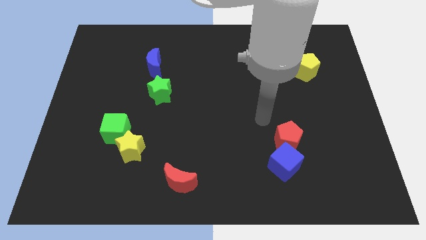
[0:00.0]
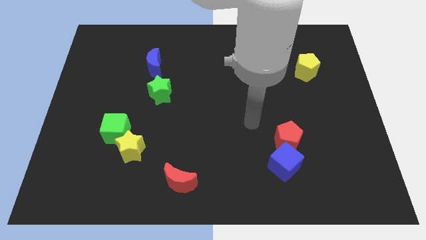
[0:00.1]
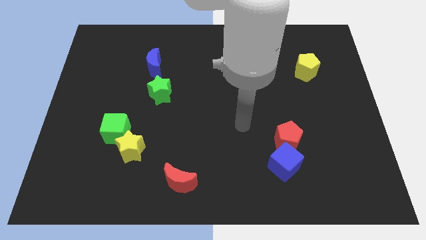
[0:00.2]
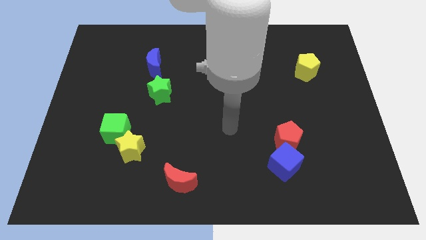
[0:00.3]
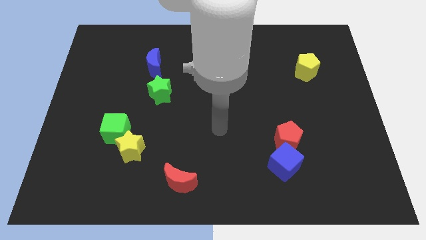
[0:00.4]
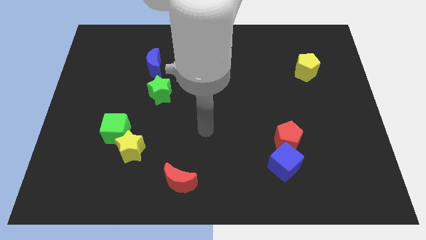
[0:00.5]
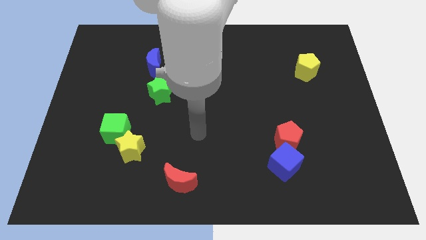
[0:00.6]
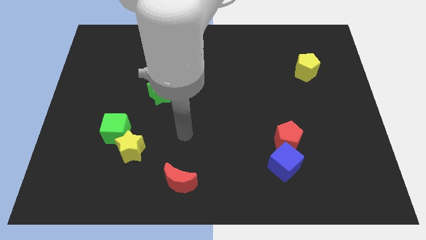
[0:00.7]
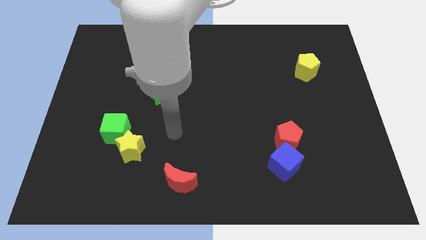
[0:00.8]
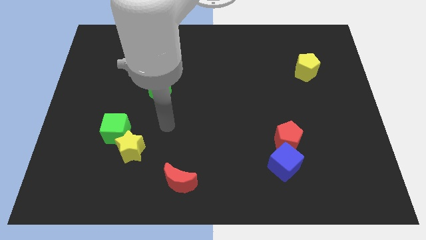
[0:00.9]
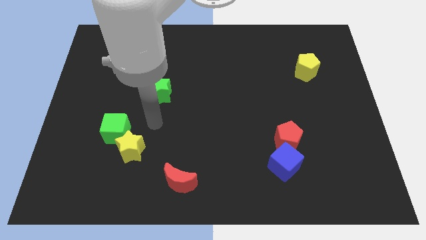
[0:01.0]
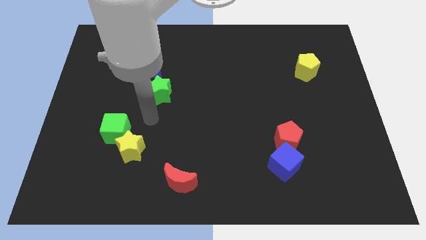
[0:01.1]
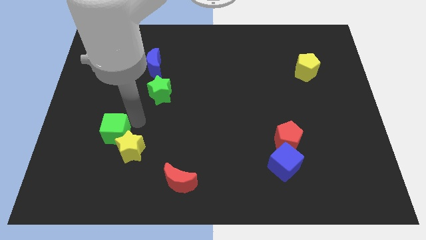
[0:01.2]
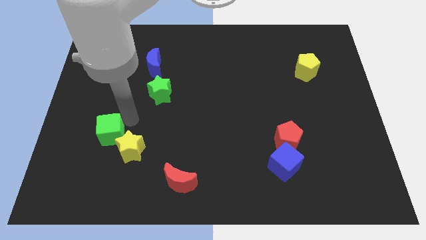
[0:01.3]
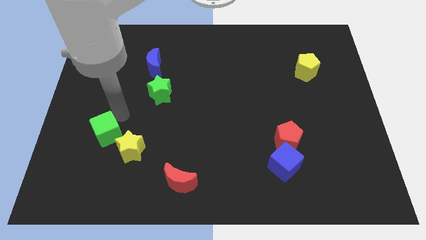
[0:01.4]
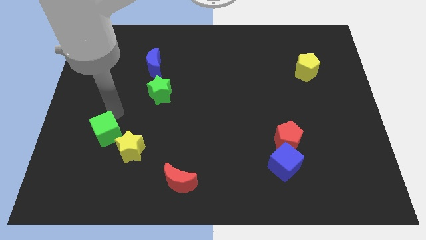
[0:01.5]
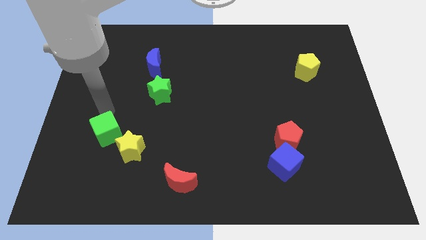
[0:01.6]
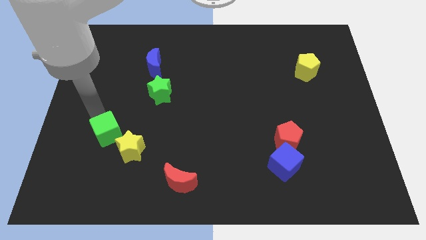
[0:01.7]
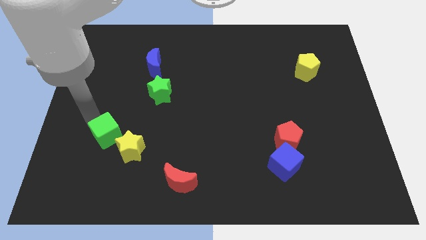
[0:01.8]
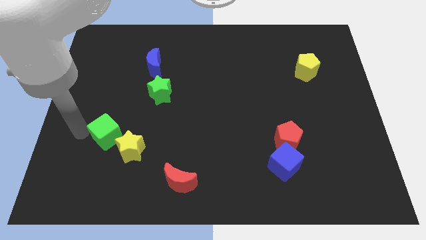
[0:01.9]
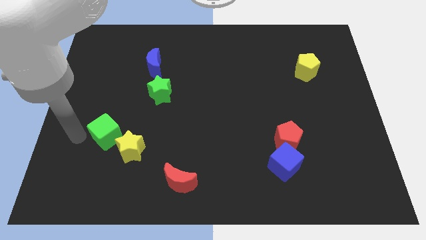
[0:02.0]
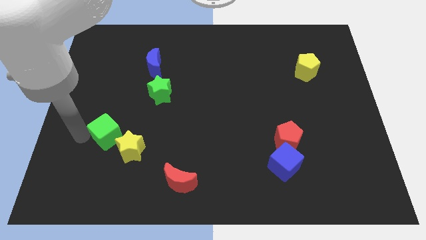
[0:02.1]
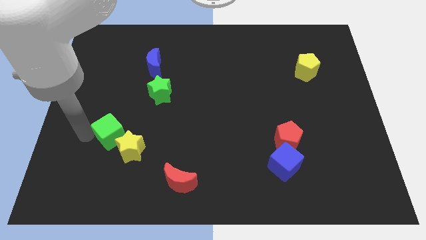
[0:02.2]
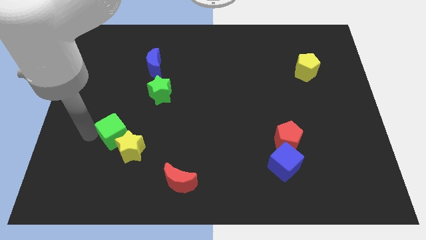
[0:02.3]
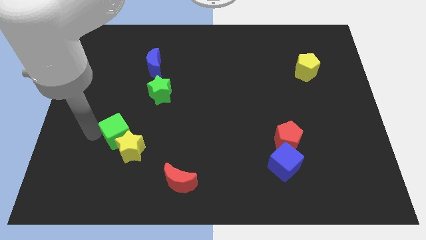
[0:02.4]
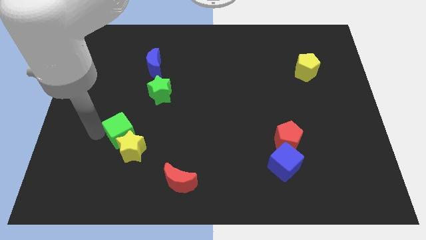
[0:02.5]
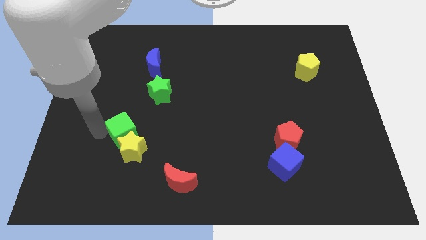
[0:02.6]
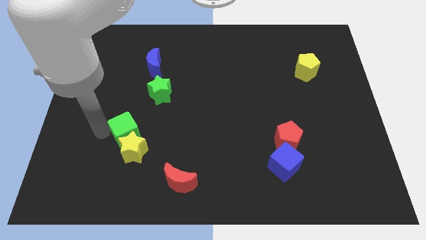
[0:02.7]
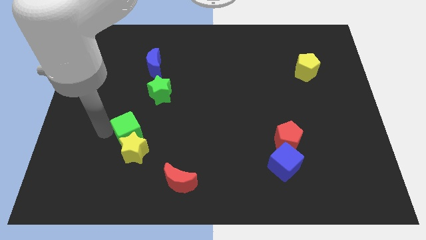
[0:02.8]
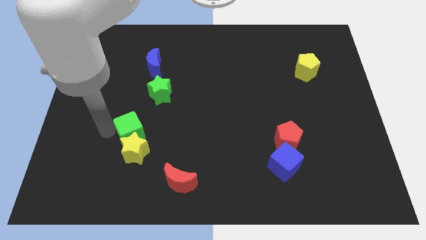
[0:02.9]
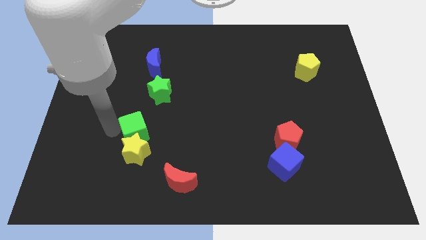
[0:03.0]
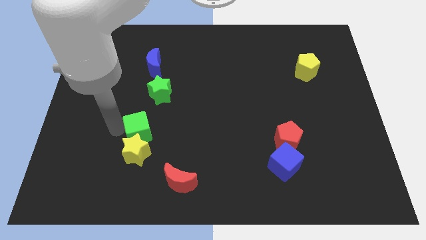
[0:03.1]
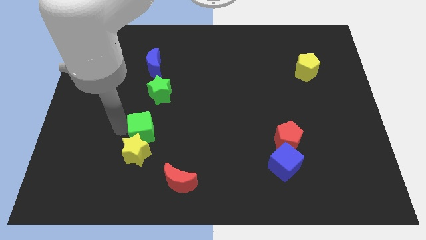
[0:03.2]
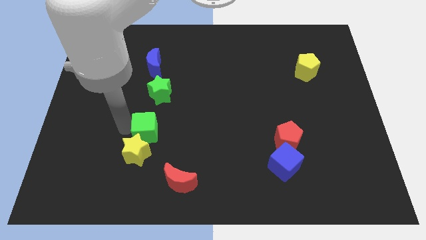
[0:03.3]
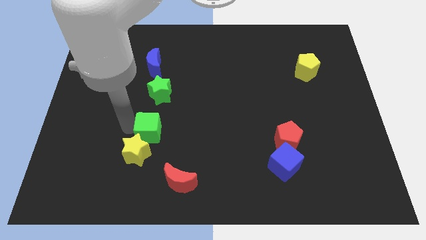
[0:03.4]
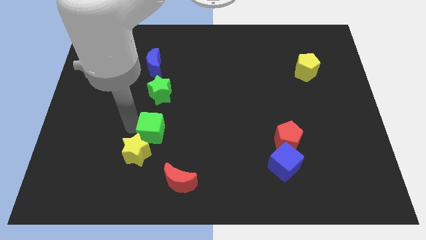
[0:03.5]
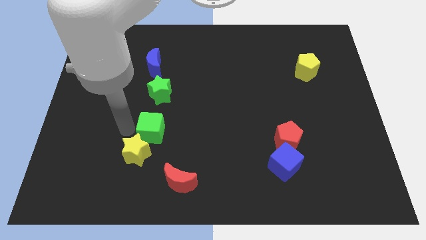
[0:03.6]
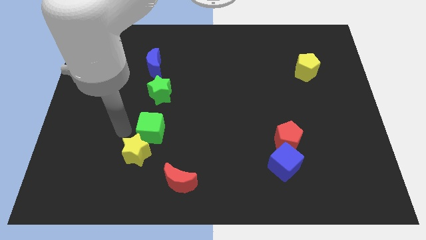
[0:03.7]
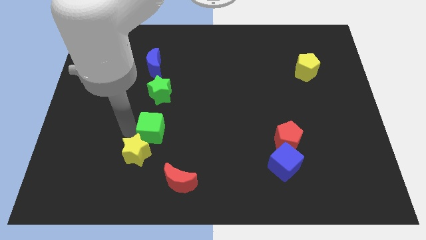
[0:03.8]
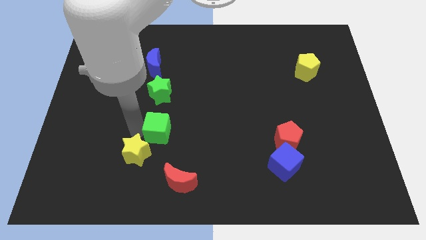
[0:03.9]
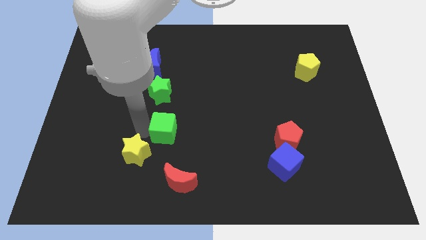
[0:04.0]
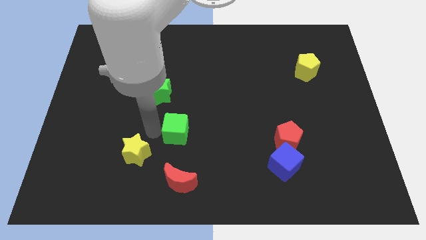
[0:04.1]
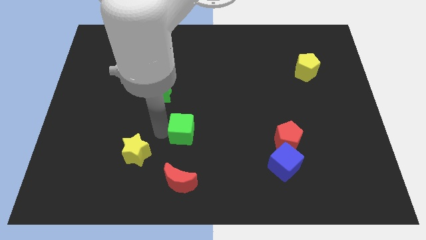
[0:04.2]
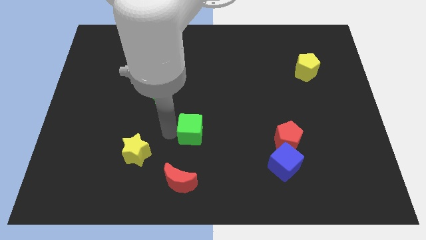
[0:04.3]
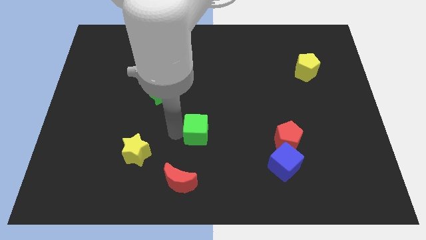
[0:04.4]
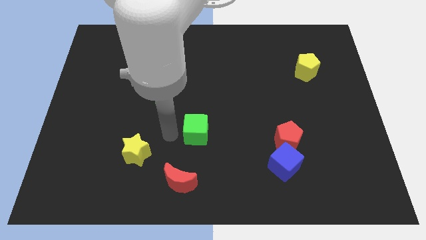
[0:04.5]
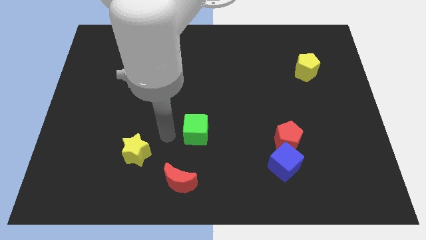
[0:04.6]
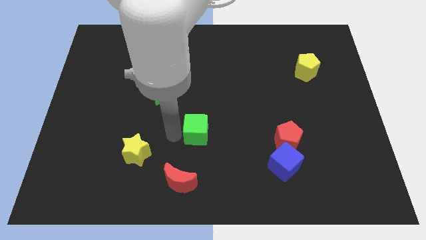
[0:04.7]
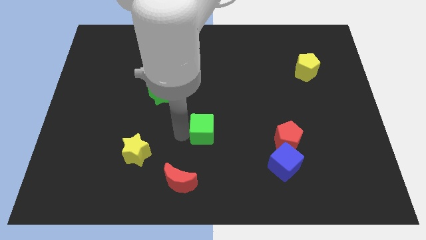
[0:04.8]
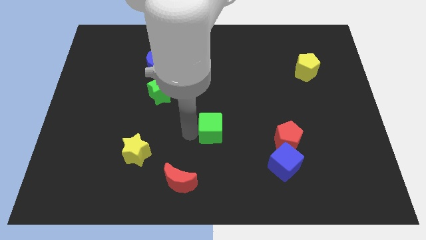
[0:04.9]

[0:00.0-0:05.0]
move the green cube to the right

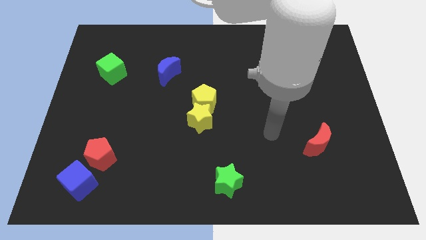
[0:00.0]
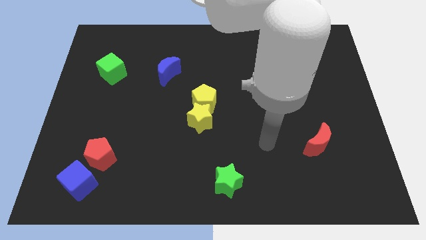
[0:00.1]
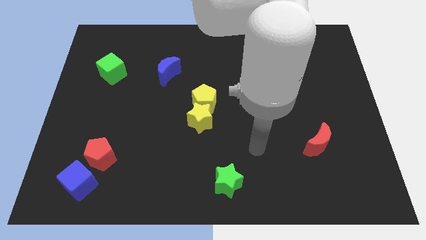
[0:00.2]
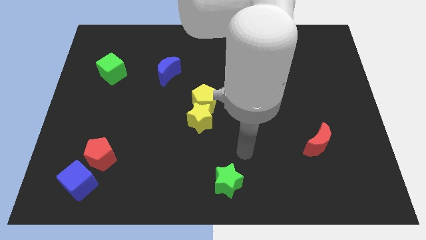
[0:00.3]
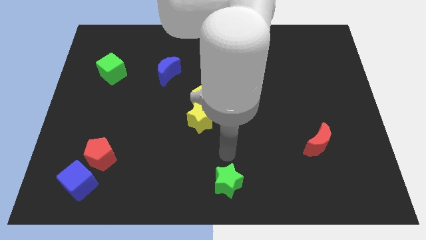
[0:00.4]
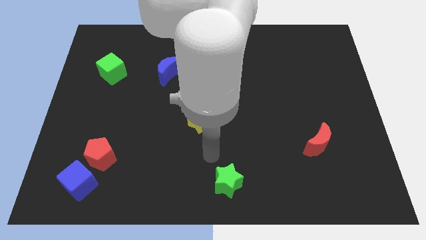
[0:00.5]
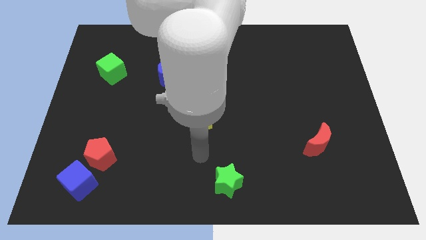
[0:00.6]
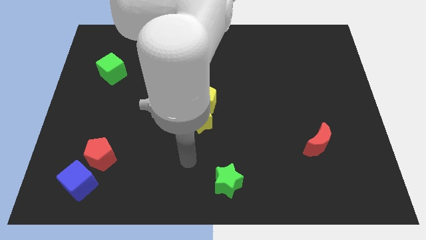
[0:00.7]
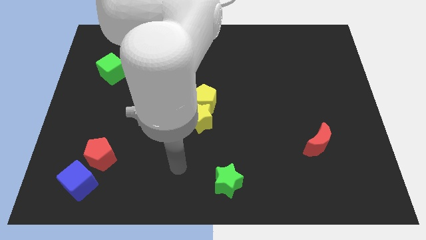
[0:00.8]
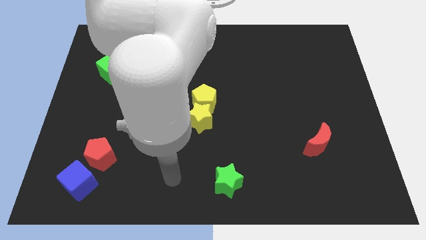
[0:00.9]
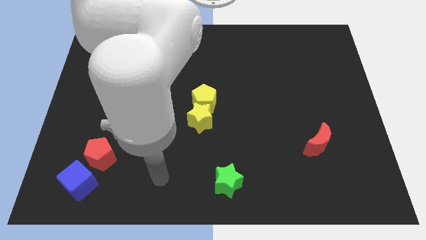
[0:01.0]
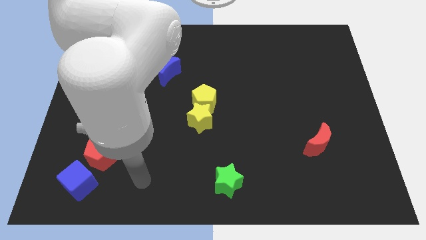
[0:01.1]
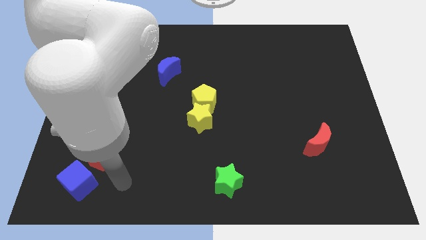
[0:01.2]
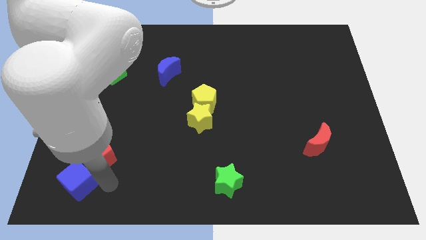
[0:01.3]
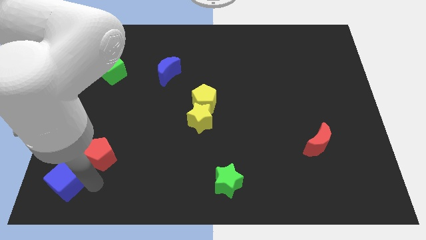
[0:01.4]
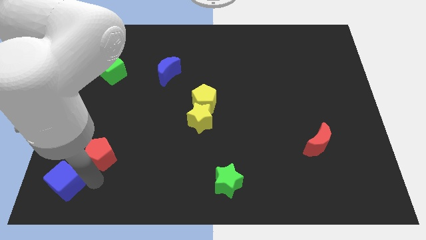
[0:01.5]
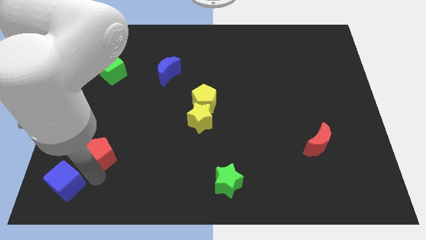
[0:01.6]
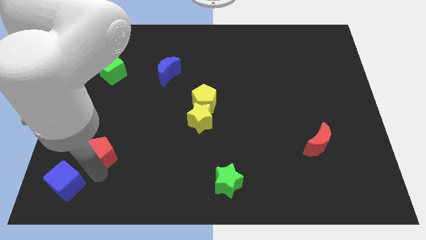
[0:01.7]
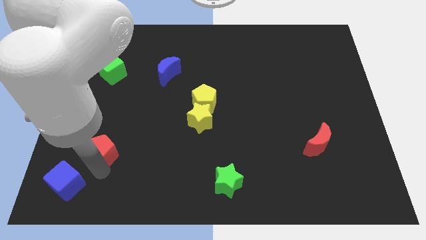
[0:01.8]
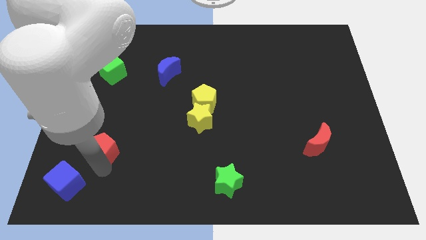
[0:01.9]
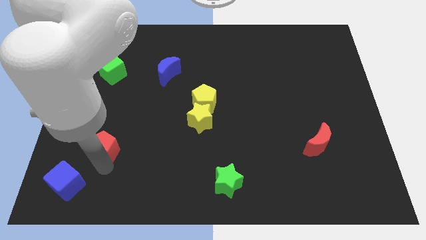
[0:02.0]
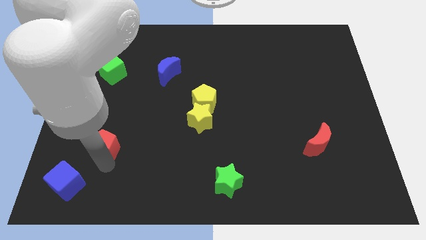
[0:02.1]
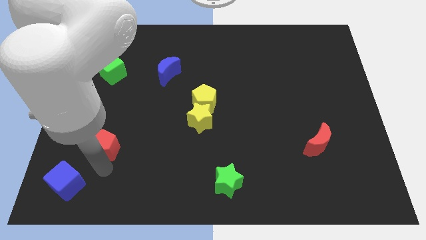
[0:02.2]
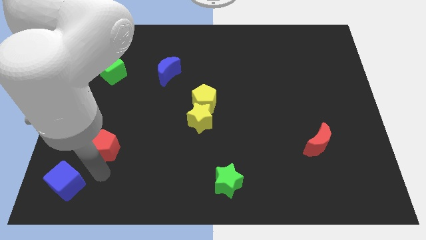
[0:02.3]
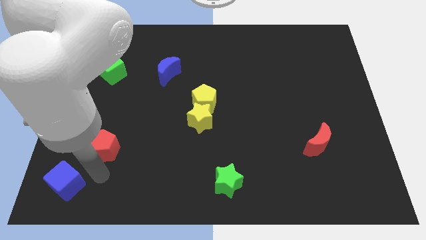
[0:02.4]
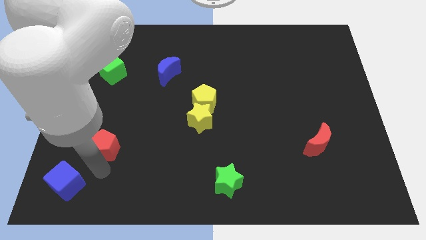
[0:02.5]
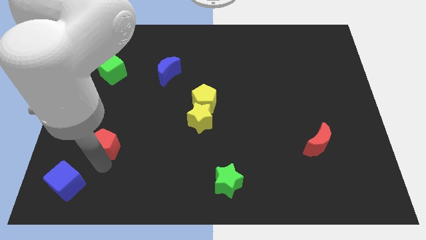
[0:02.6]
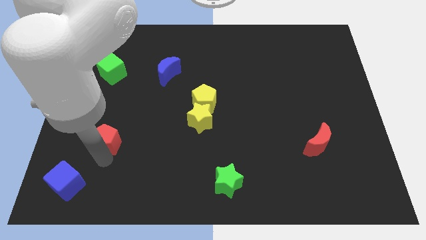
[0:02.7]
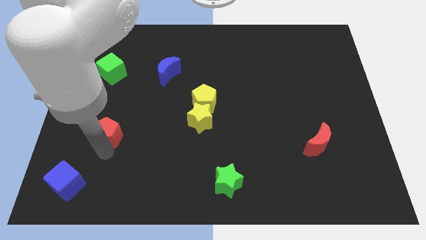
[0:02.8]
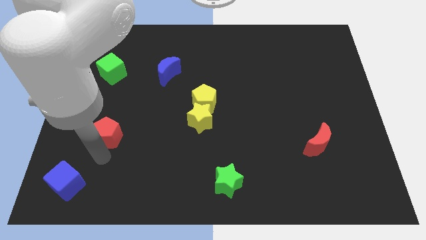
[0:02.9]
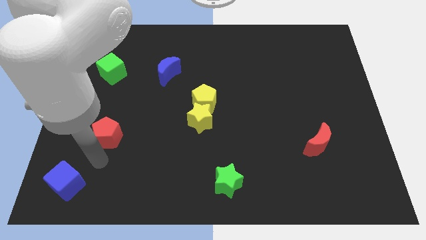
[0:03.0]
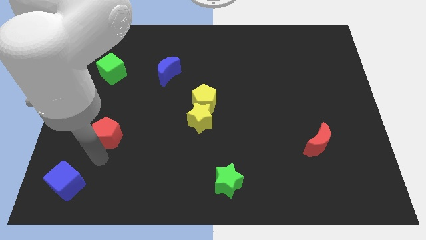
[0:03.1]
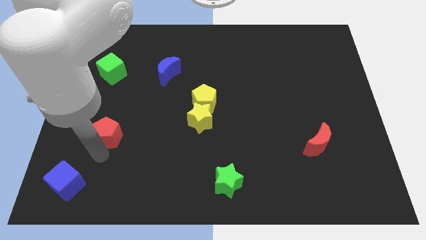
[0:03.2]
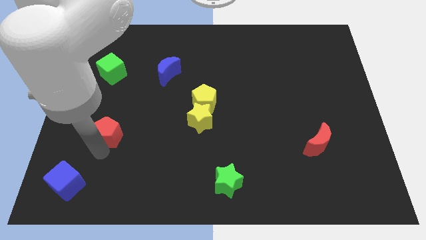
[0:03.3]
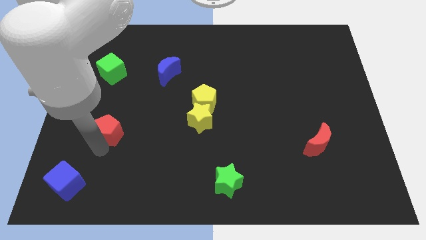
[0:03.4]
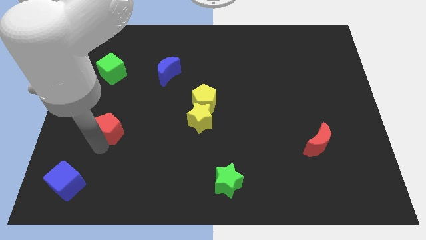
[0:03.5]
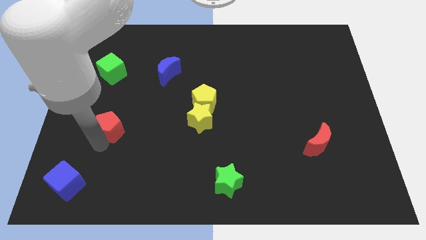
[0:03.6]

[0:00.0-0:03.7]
push the red pentagon upwards slightly
